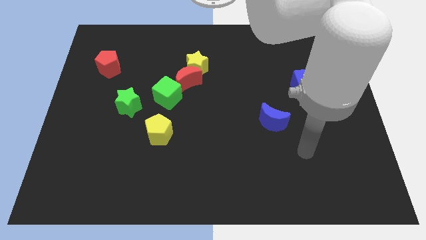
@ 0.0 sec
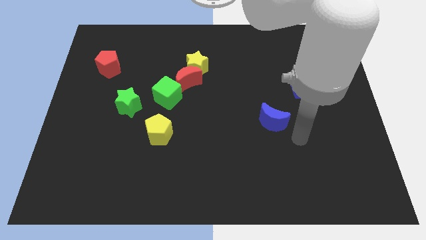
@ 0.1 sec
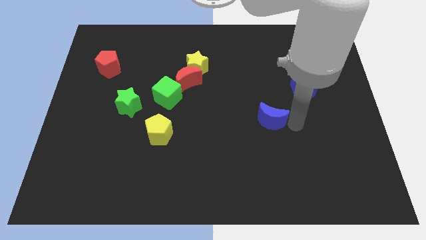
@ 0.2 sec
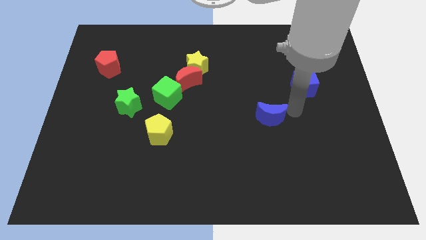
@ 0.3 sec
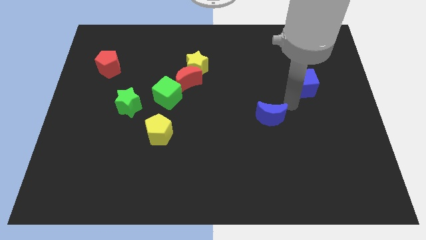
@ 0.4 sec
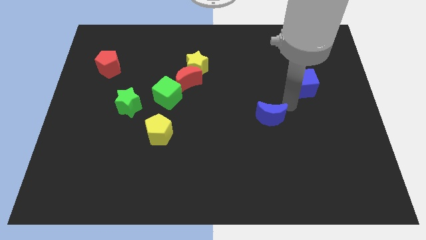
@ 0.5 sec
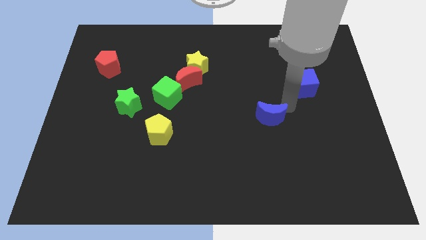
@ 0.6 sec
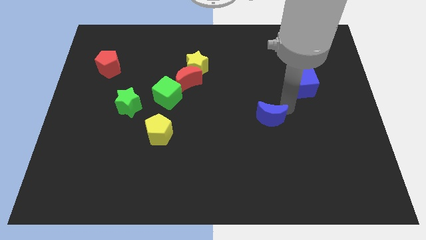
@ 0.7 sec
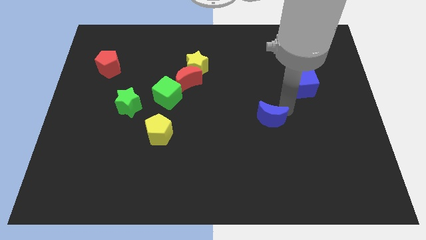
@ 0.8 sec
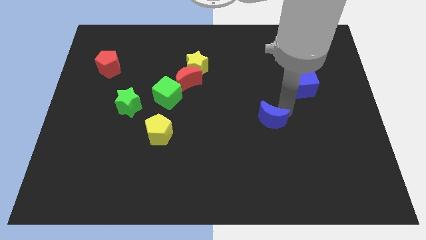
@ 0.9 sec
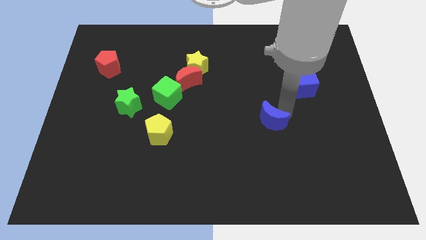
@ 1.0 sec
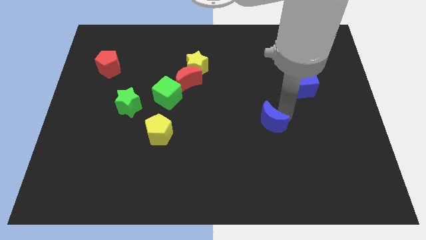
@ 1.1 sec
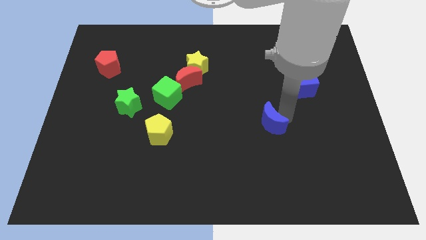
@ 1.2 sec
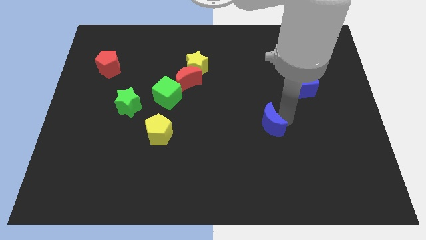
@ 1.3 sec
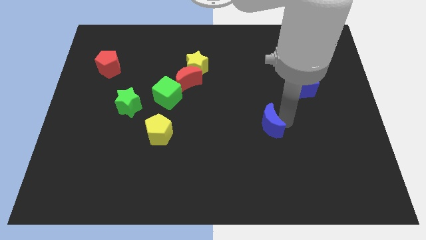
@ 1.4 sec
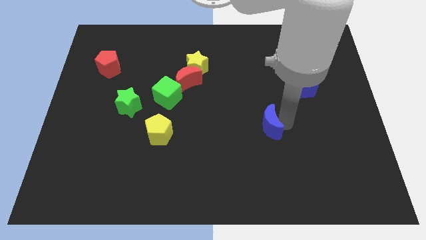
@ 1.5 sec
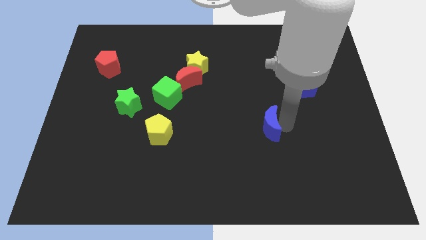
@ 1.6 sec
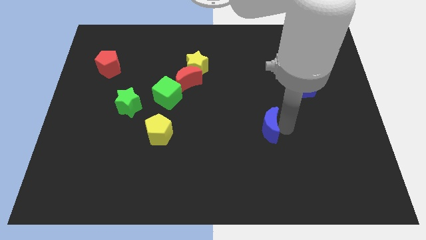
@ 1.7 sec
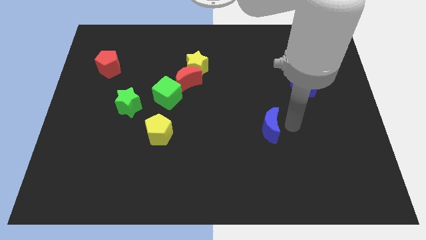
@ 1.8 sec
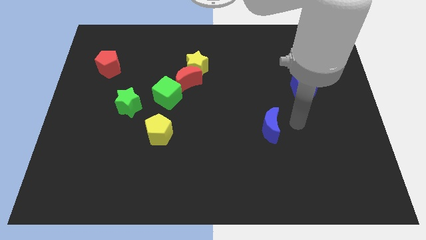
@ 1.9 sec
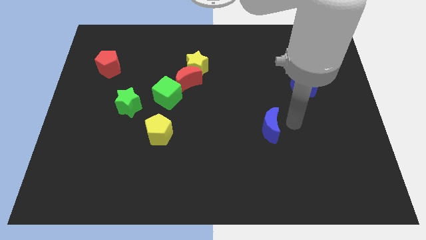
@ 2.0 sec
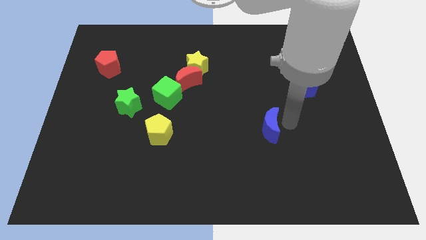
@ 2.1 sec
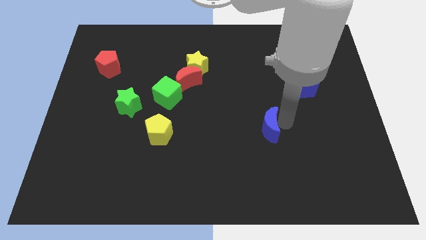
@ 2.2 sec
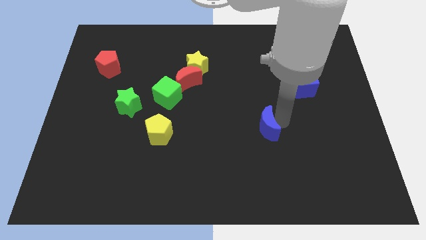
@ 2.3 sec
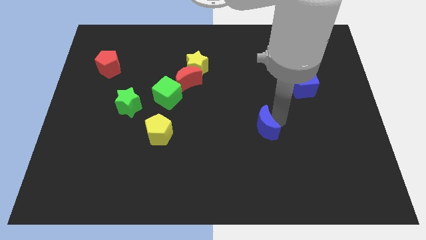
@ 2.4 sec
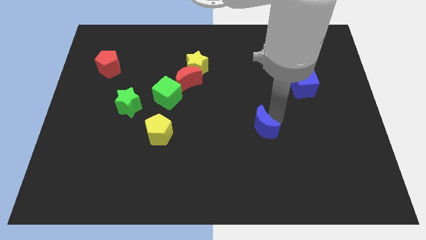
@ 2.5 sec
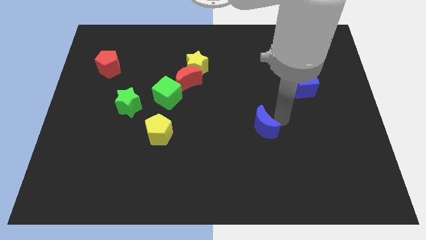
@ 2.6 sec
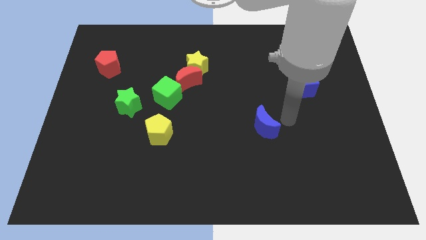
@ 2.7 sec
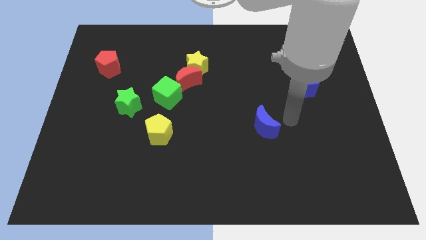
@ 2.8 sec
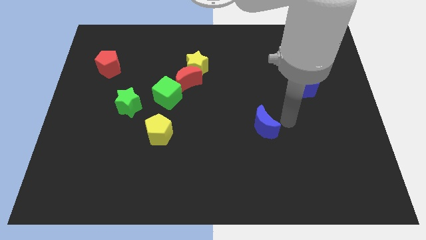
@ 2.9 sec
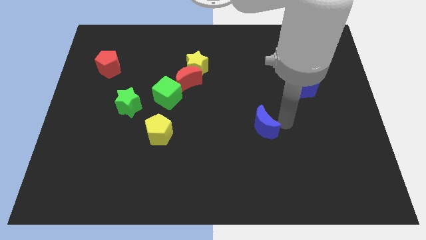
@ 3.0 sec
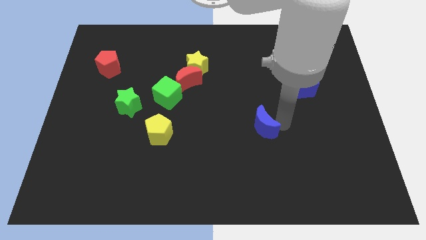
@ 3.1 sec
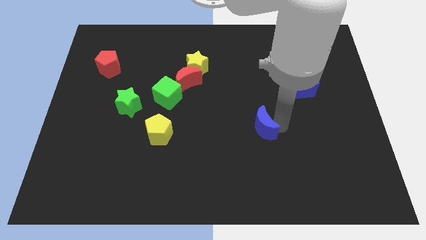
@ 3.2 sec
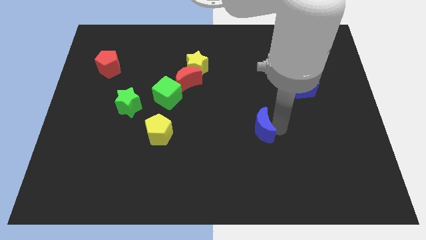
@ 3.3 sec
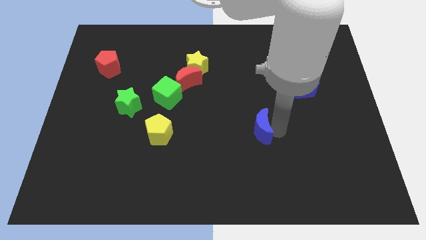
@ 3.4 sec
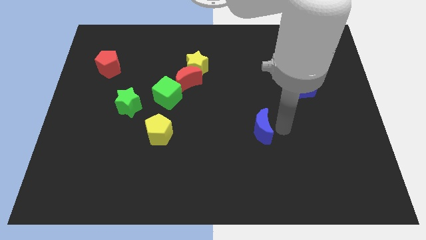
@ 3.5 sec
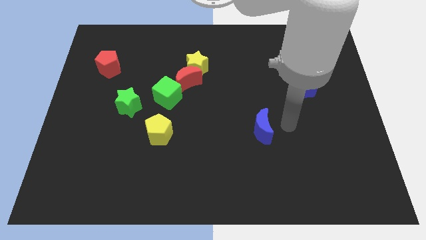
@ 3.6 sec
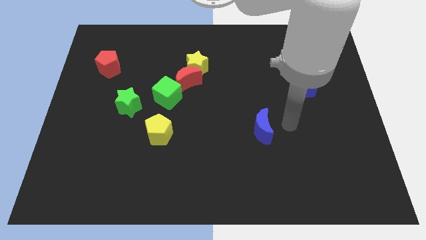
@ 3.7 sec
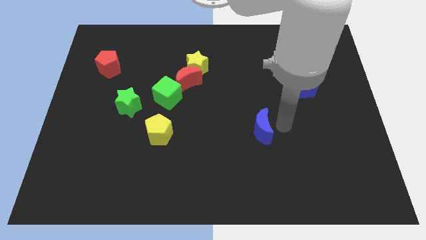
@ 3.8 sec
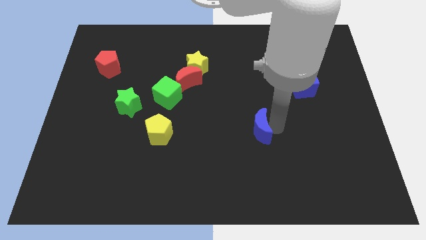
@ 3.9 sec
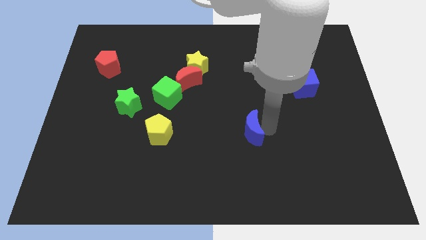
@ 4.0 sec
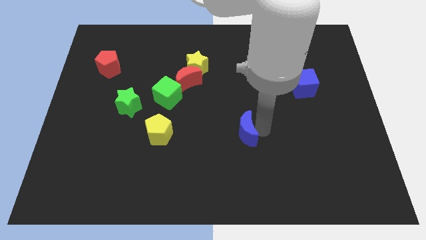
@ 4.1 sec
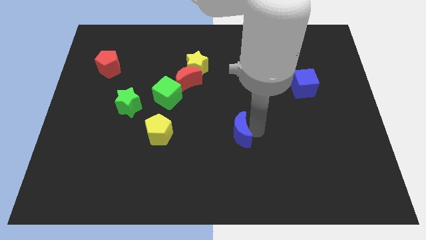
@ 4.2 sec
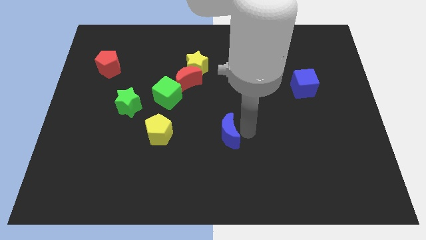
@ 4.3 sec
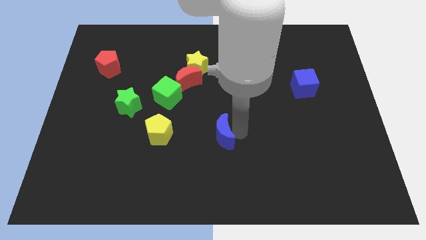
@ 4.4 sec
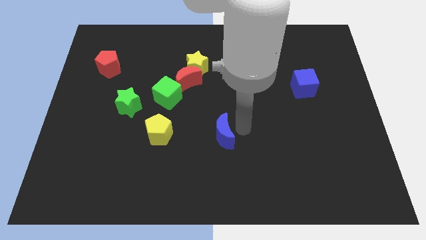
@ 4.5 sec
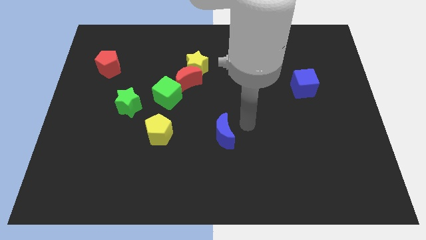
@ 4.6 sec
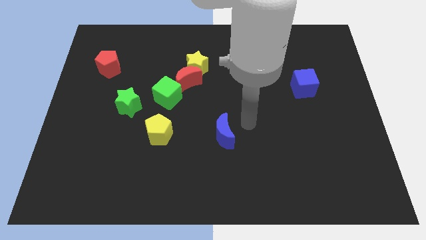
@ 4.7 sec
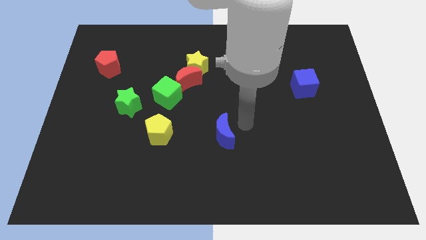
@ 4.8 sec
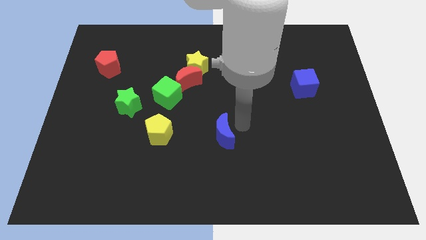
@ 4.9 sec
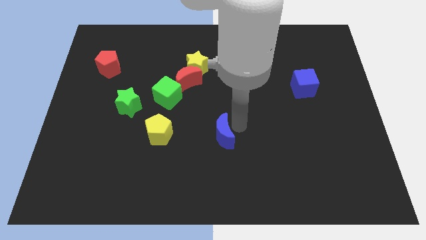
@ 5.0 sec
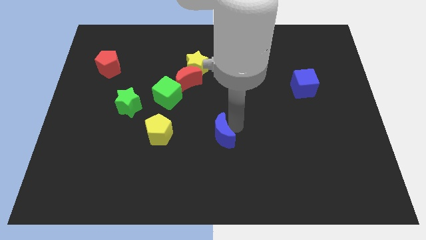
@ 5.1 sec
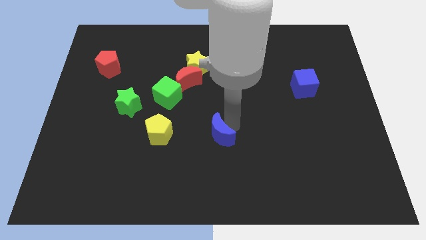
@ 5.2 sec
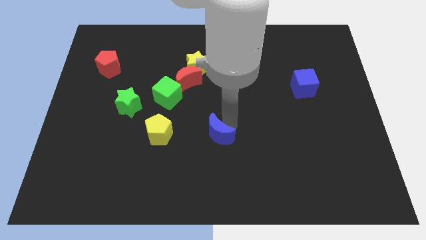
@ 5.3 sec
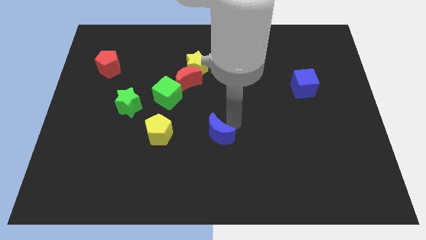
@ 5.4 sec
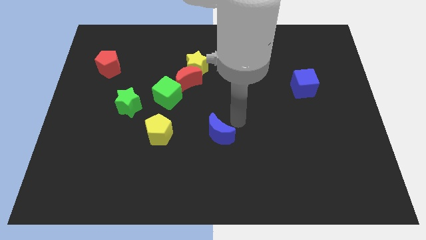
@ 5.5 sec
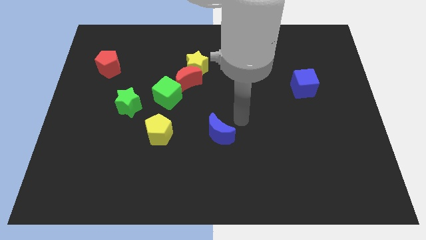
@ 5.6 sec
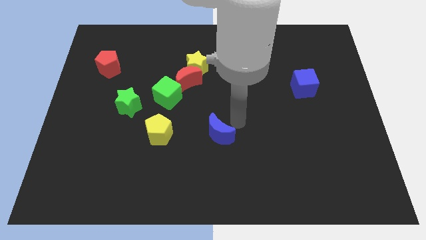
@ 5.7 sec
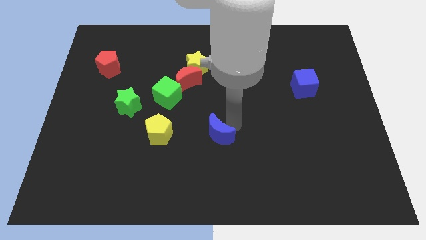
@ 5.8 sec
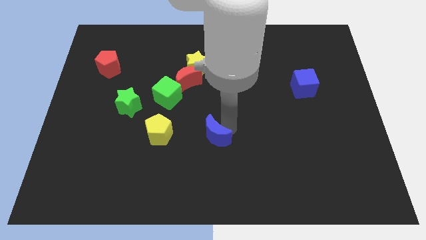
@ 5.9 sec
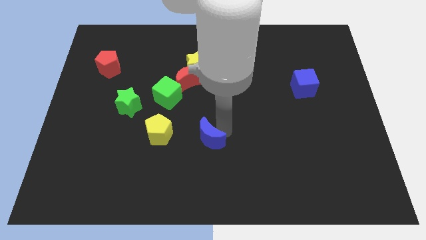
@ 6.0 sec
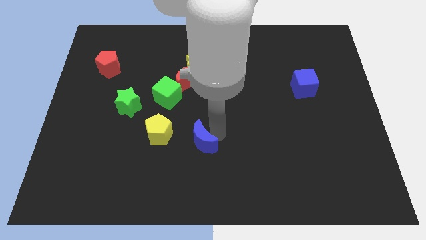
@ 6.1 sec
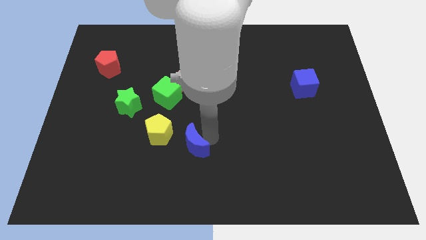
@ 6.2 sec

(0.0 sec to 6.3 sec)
slide the blue moon diagonally down and to the right of the yellow pentagon

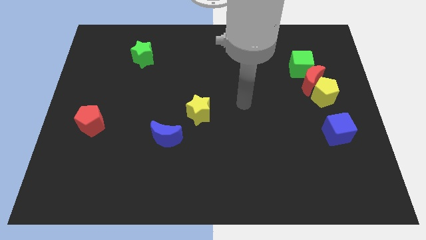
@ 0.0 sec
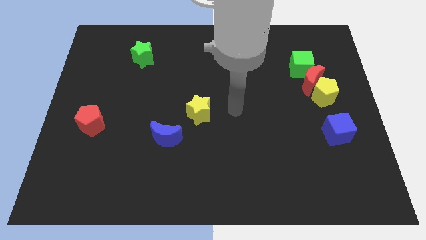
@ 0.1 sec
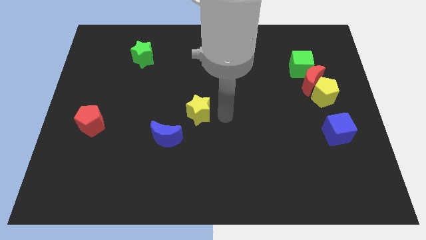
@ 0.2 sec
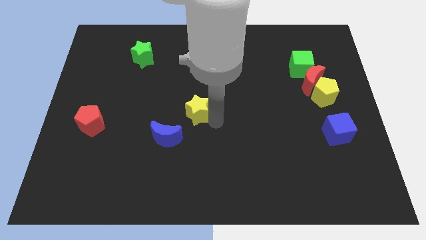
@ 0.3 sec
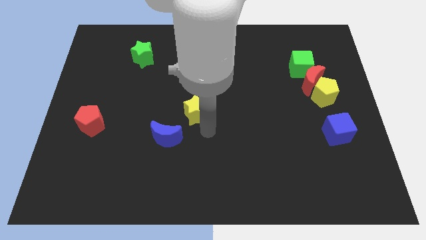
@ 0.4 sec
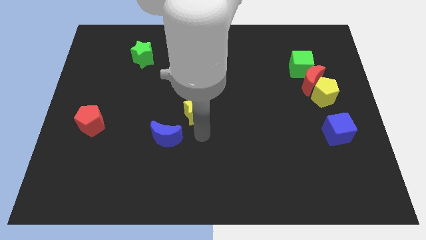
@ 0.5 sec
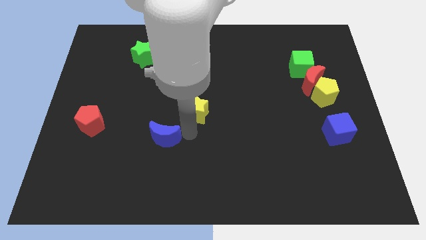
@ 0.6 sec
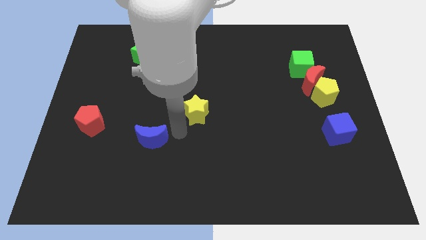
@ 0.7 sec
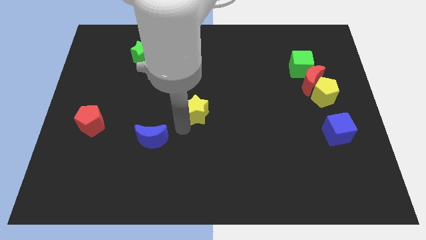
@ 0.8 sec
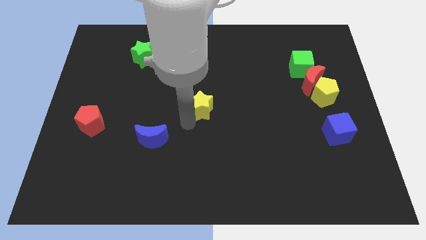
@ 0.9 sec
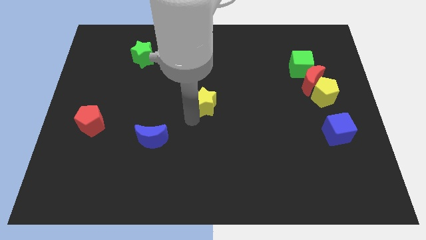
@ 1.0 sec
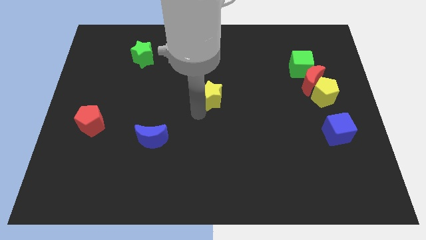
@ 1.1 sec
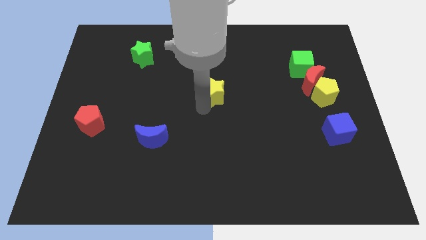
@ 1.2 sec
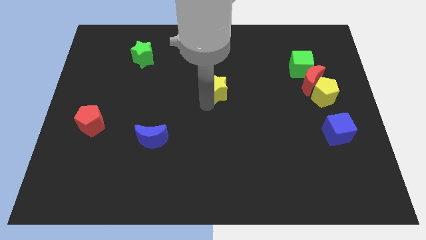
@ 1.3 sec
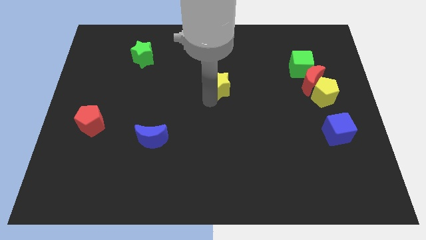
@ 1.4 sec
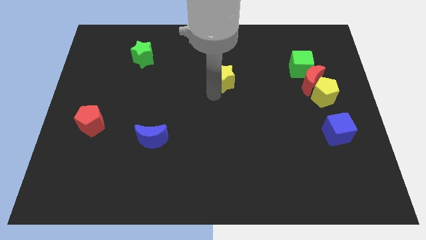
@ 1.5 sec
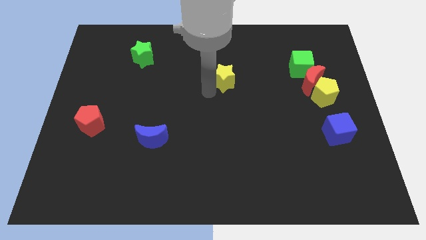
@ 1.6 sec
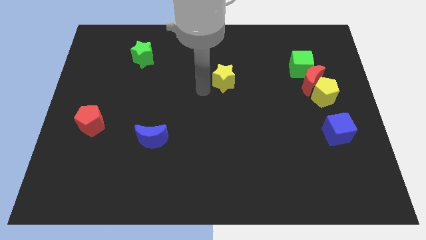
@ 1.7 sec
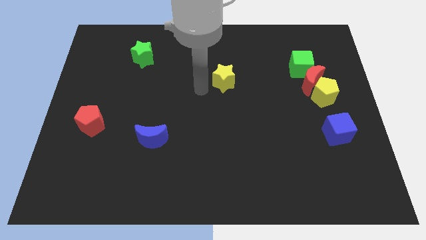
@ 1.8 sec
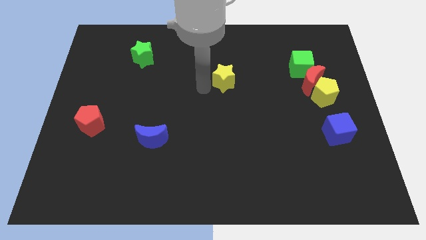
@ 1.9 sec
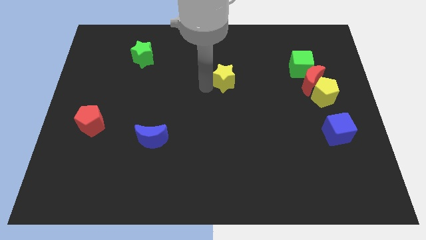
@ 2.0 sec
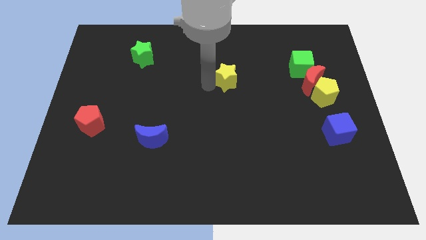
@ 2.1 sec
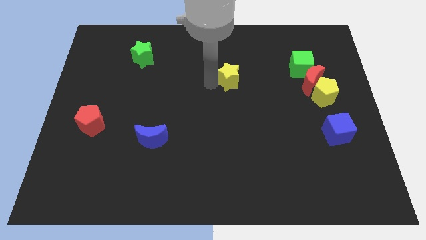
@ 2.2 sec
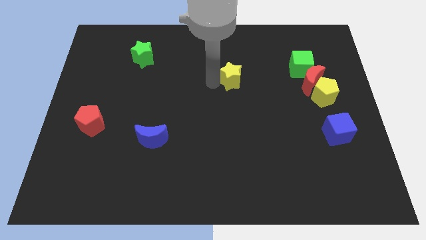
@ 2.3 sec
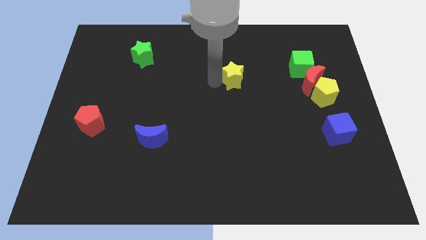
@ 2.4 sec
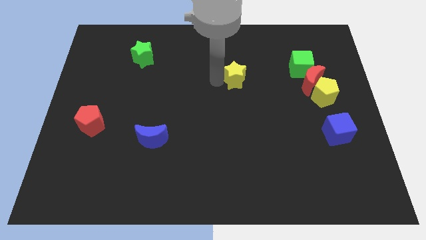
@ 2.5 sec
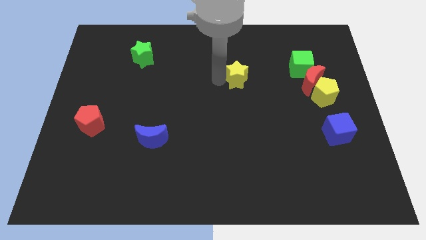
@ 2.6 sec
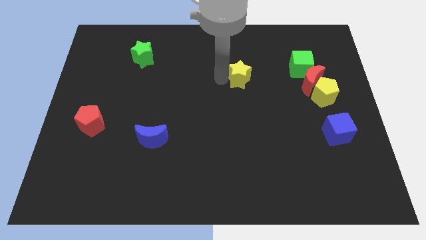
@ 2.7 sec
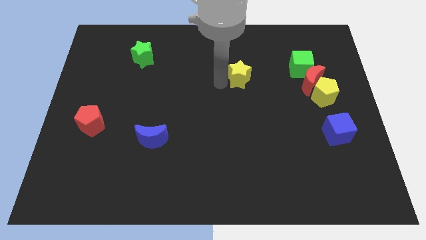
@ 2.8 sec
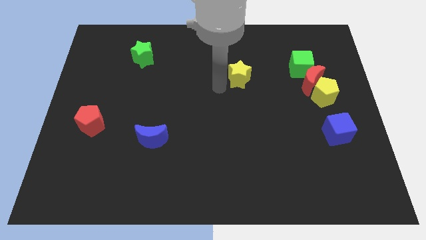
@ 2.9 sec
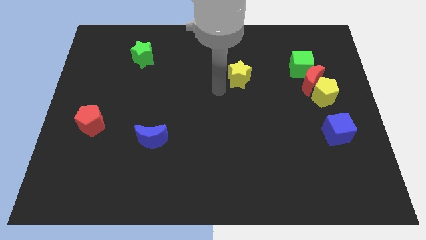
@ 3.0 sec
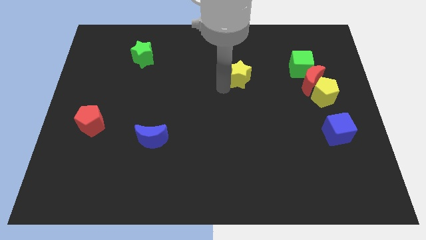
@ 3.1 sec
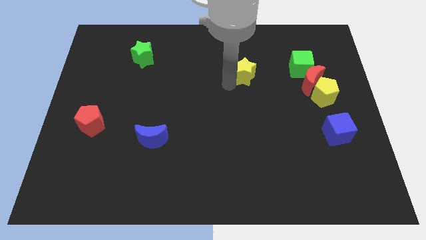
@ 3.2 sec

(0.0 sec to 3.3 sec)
put the yellow star just left of the green cube
